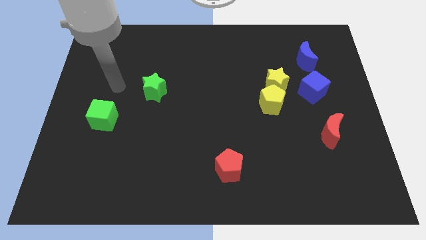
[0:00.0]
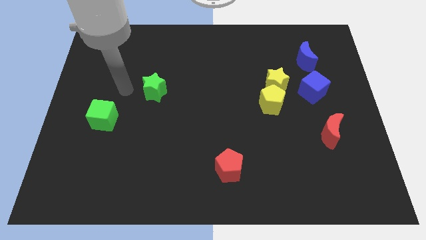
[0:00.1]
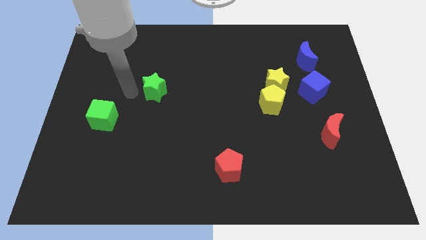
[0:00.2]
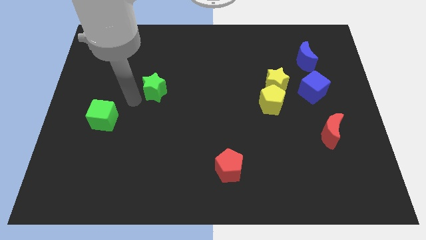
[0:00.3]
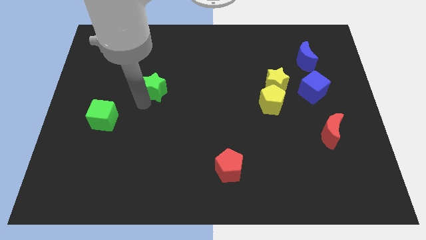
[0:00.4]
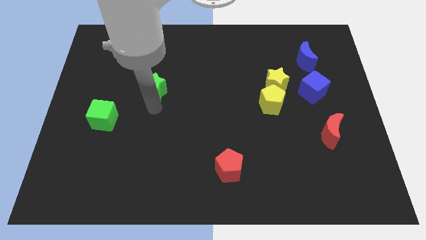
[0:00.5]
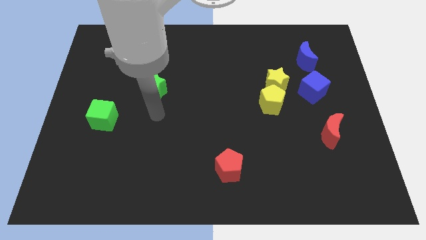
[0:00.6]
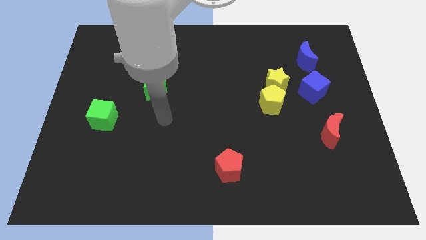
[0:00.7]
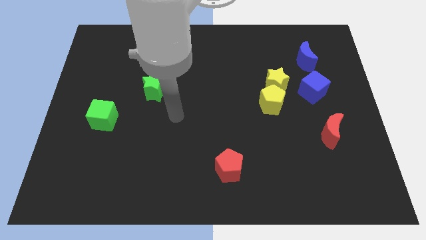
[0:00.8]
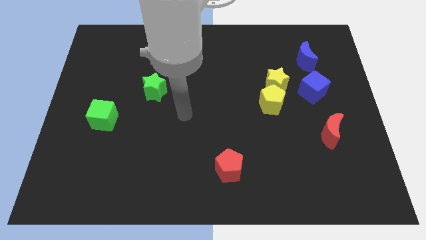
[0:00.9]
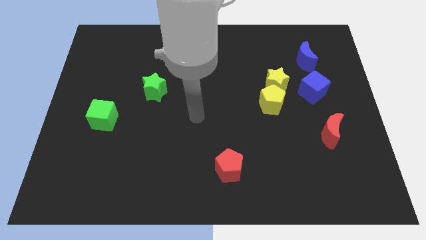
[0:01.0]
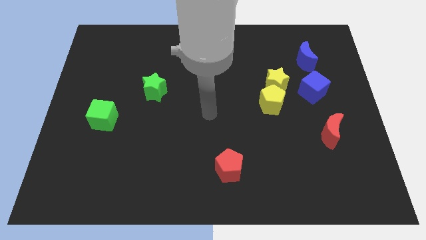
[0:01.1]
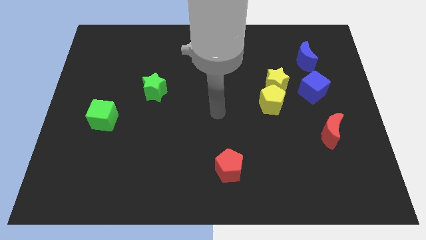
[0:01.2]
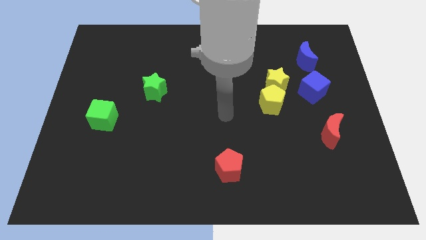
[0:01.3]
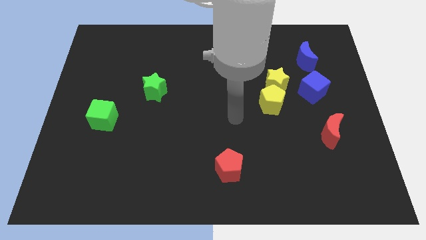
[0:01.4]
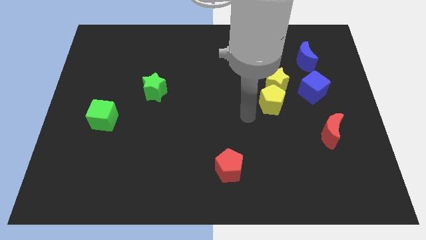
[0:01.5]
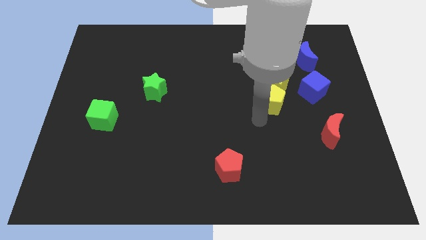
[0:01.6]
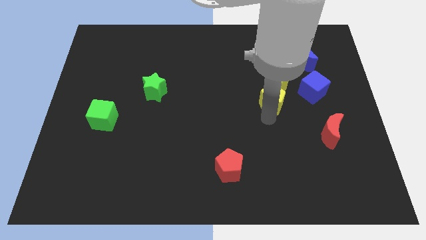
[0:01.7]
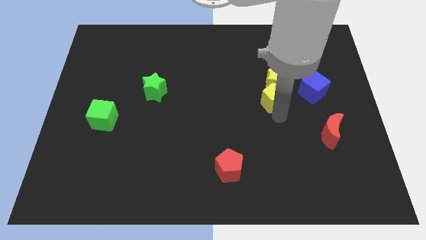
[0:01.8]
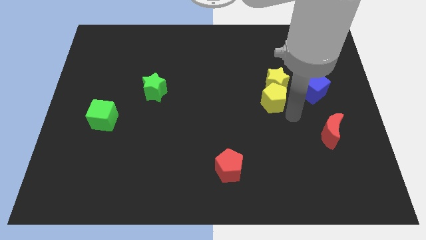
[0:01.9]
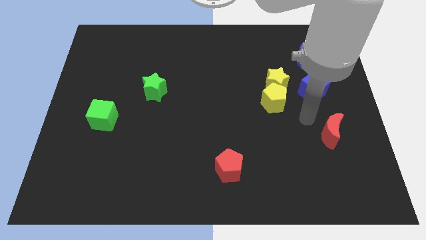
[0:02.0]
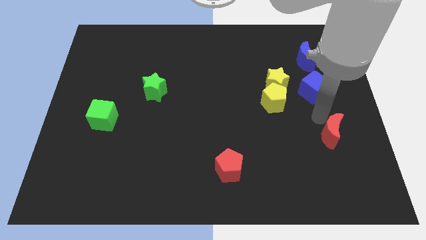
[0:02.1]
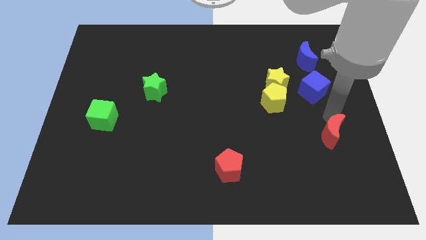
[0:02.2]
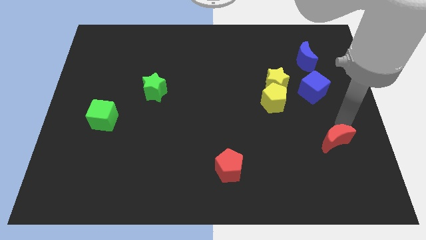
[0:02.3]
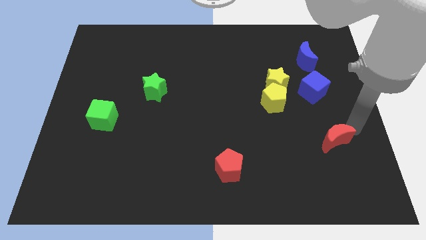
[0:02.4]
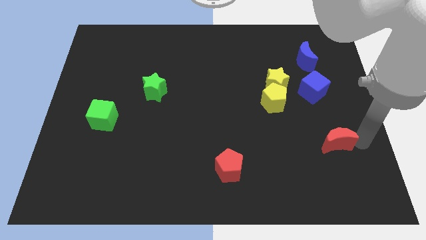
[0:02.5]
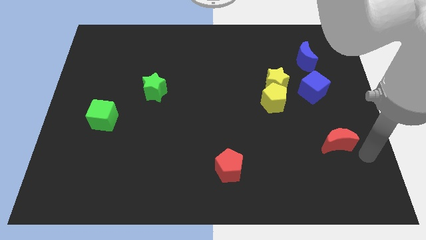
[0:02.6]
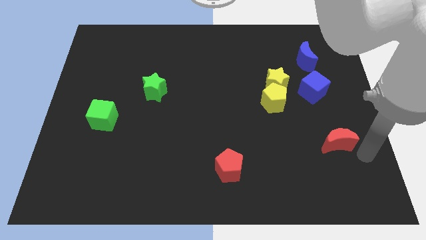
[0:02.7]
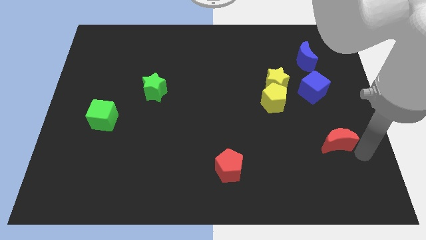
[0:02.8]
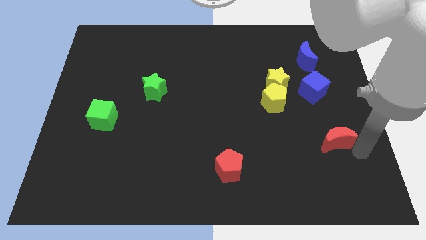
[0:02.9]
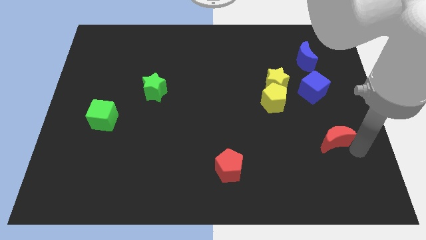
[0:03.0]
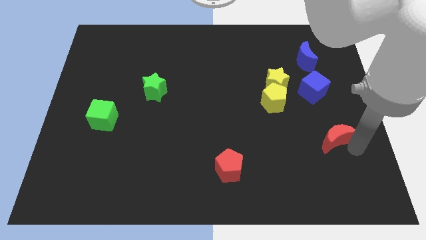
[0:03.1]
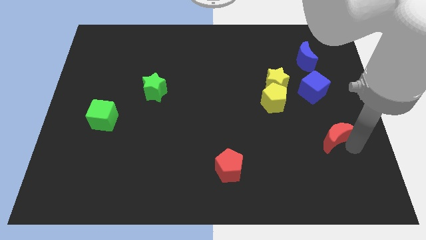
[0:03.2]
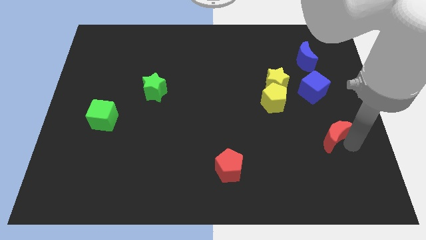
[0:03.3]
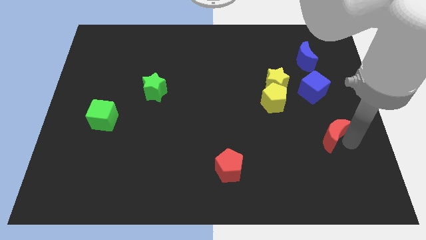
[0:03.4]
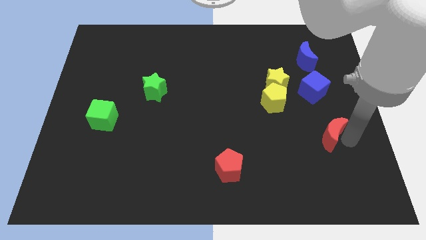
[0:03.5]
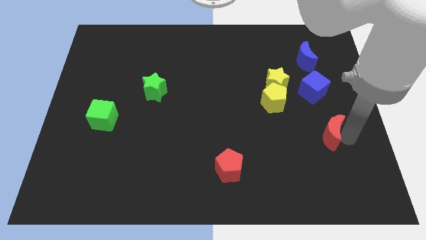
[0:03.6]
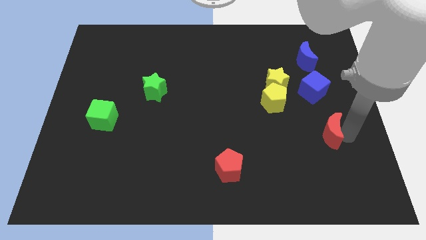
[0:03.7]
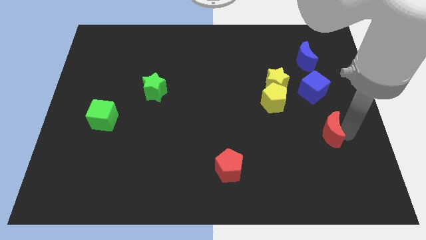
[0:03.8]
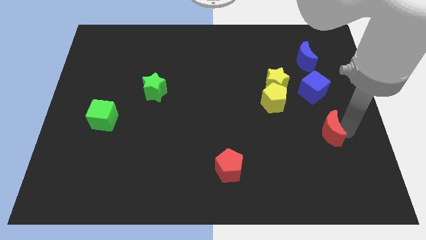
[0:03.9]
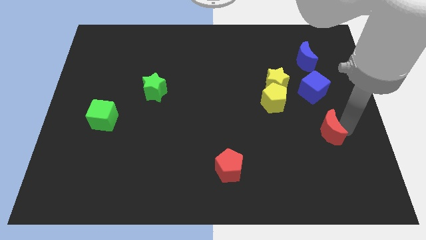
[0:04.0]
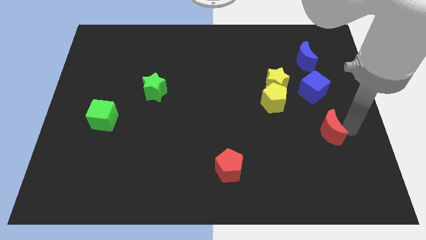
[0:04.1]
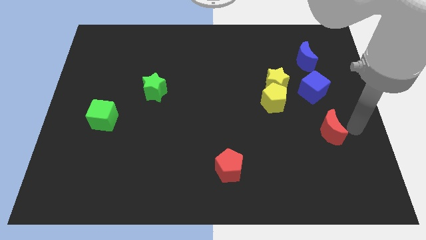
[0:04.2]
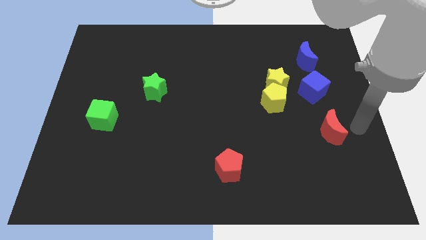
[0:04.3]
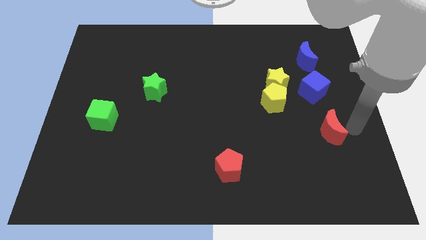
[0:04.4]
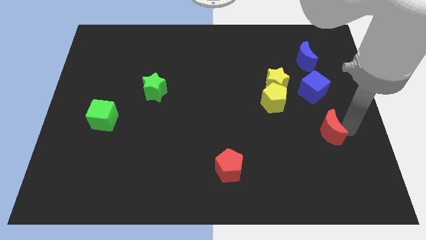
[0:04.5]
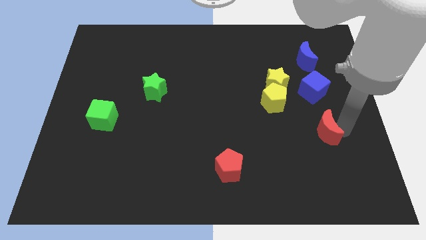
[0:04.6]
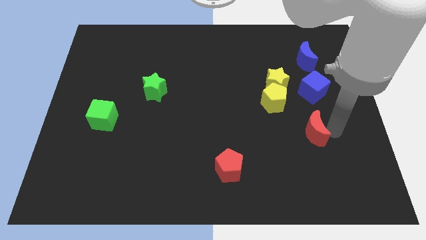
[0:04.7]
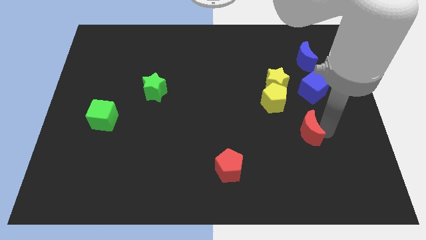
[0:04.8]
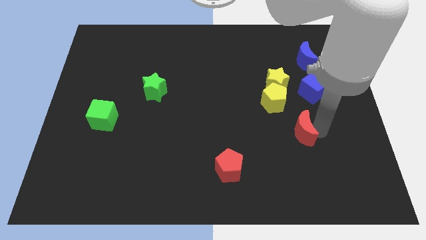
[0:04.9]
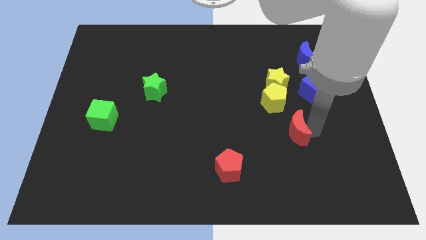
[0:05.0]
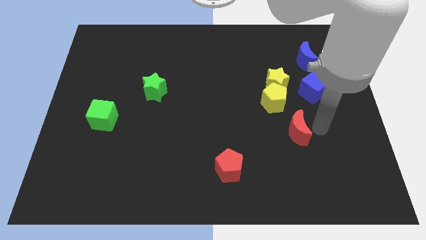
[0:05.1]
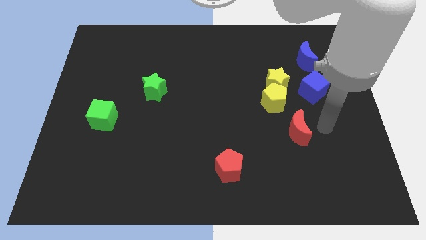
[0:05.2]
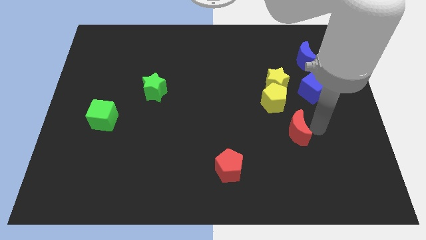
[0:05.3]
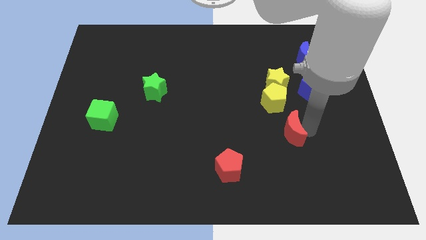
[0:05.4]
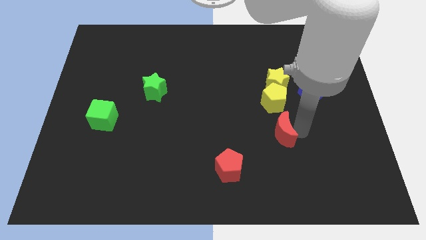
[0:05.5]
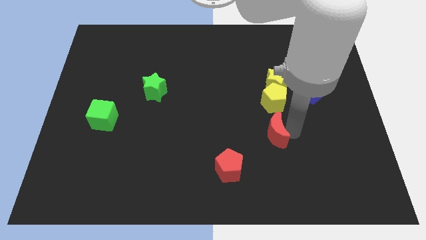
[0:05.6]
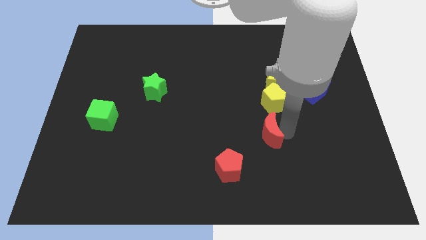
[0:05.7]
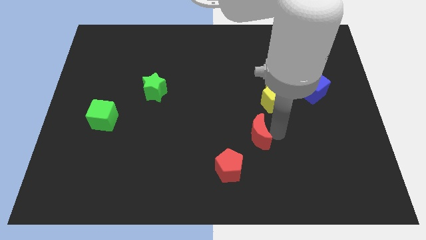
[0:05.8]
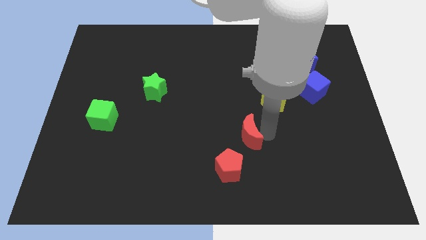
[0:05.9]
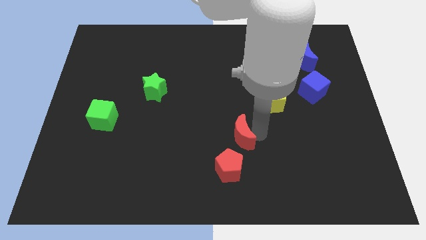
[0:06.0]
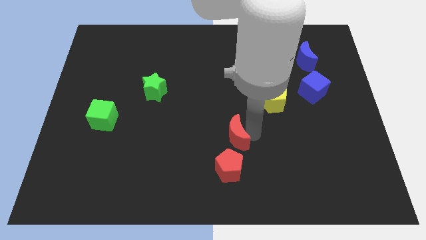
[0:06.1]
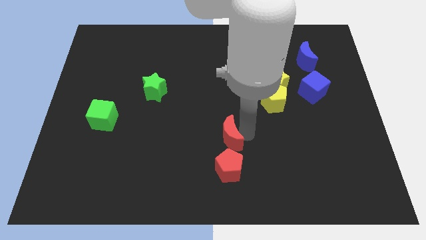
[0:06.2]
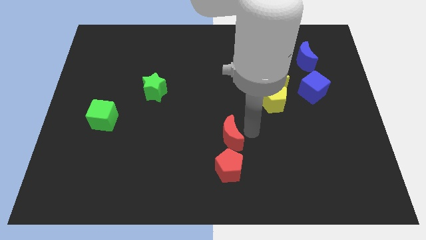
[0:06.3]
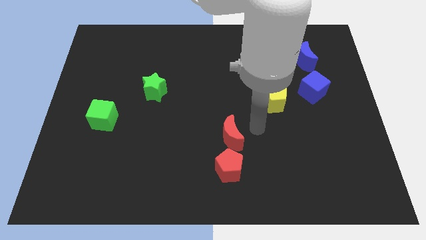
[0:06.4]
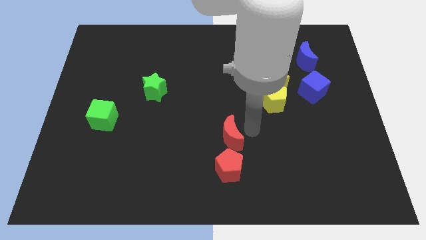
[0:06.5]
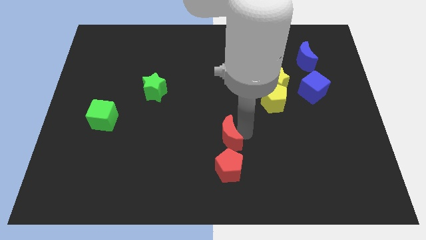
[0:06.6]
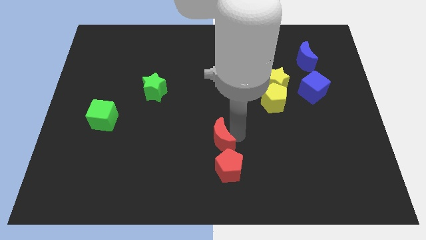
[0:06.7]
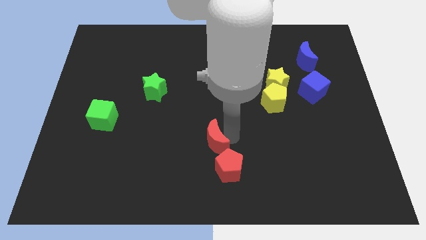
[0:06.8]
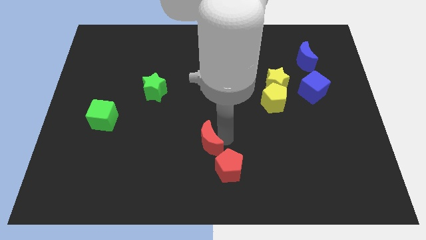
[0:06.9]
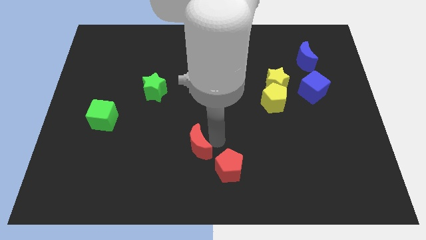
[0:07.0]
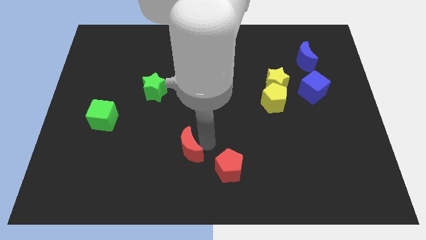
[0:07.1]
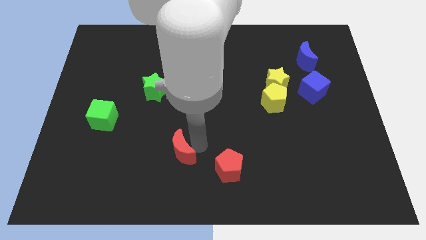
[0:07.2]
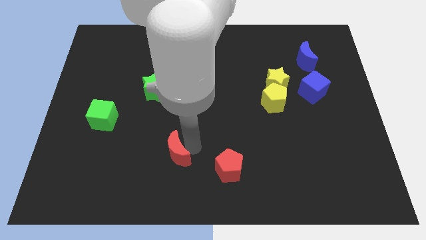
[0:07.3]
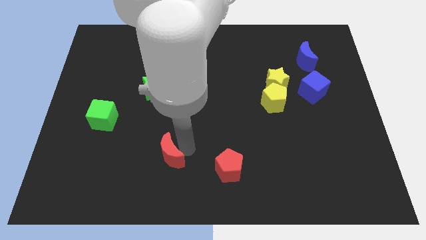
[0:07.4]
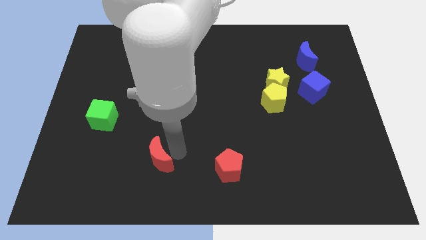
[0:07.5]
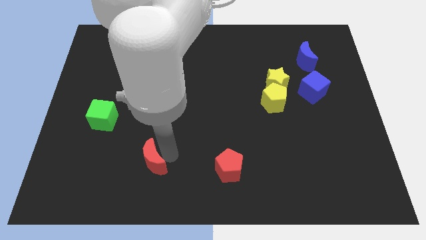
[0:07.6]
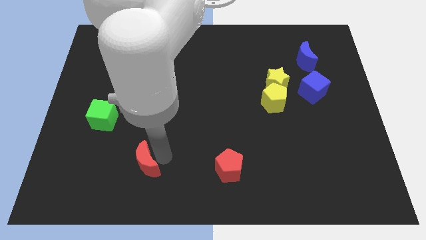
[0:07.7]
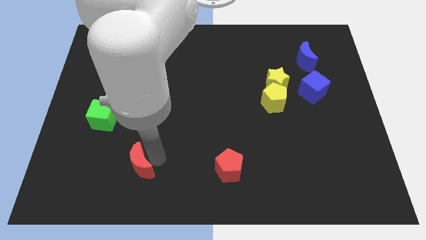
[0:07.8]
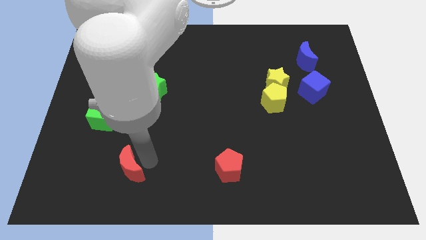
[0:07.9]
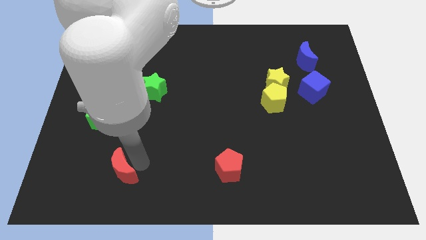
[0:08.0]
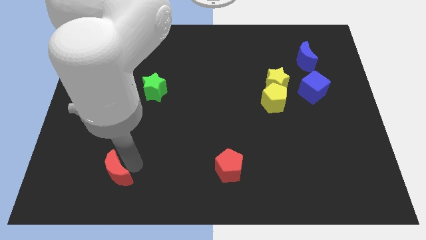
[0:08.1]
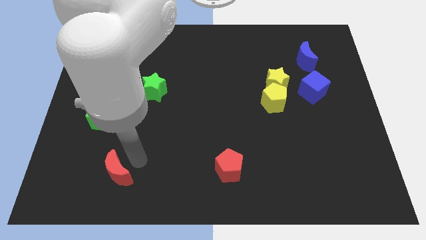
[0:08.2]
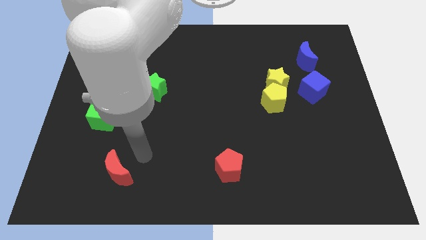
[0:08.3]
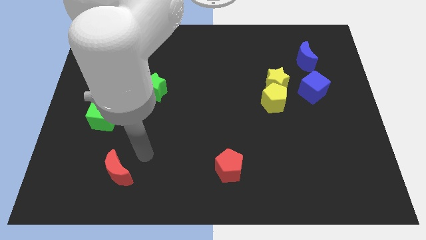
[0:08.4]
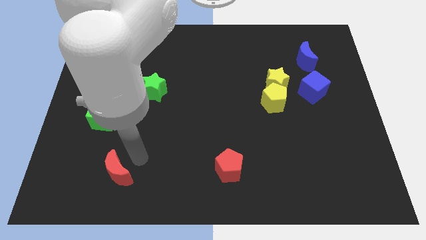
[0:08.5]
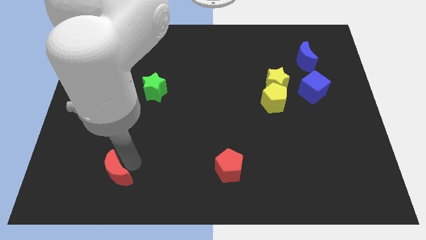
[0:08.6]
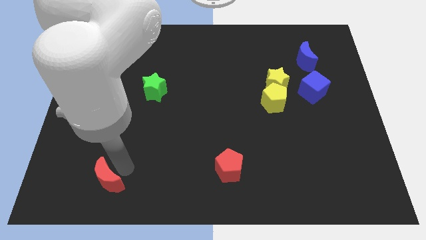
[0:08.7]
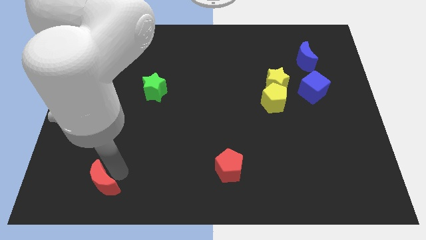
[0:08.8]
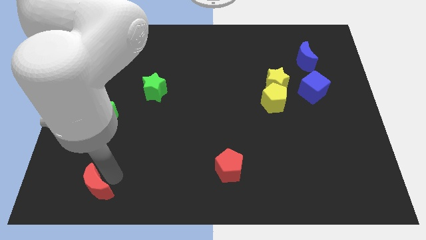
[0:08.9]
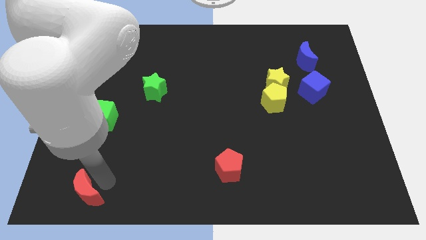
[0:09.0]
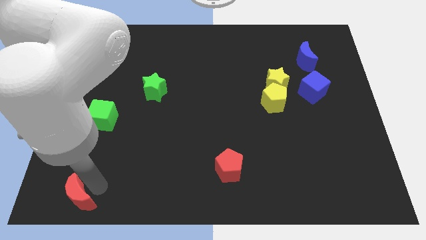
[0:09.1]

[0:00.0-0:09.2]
slide the red moon to the bottom left corner
